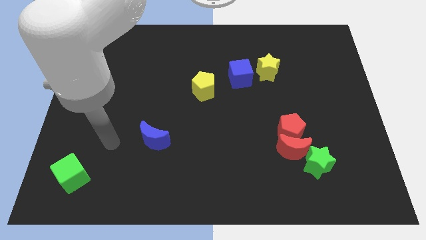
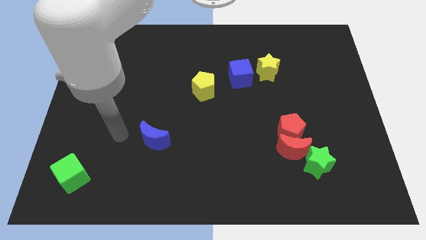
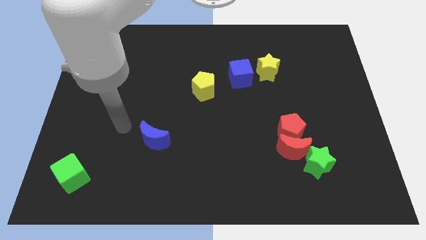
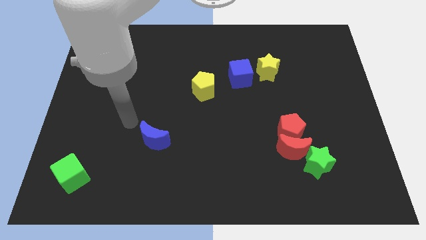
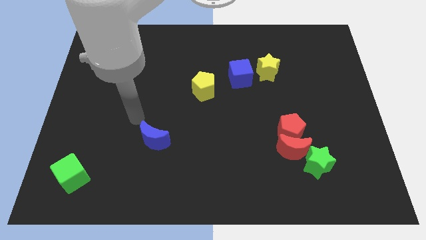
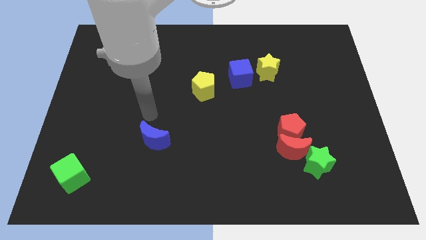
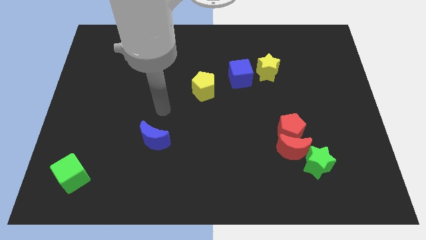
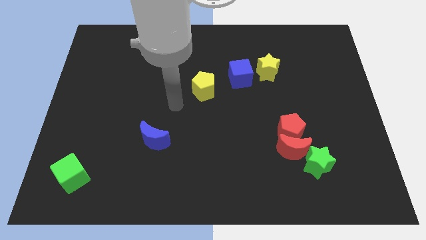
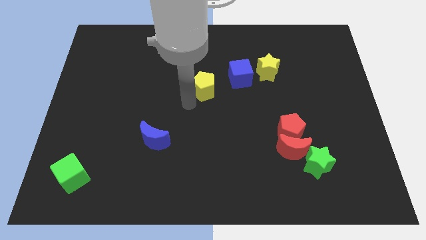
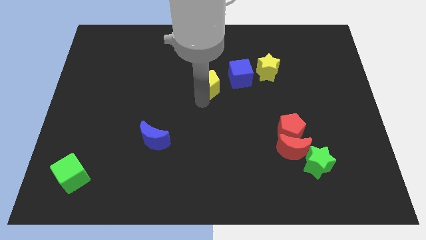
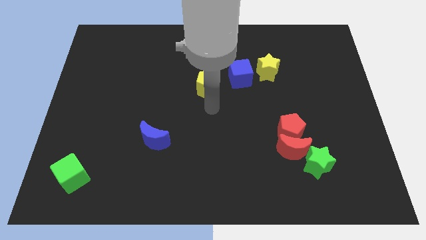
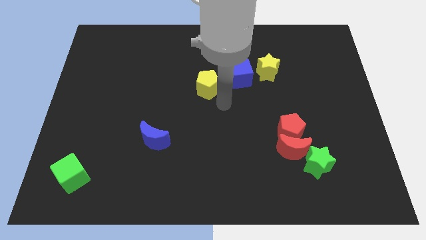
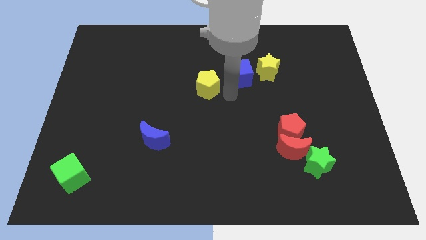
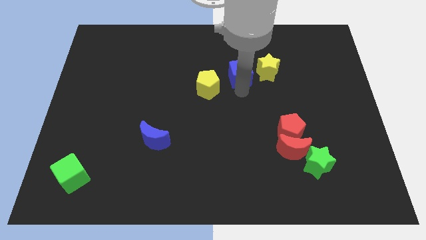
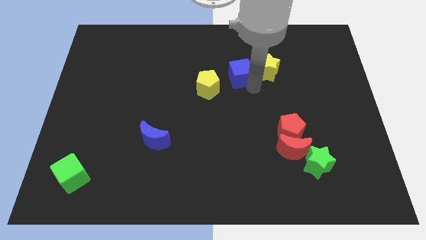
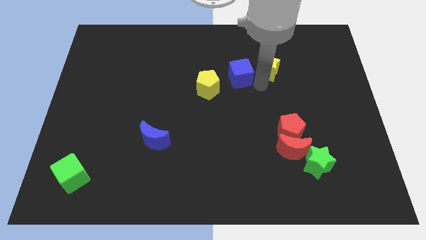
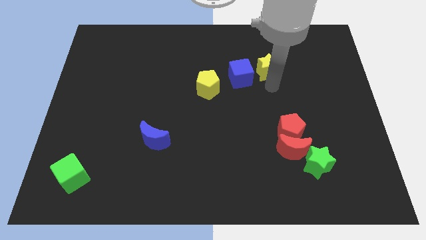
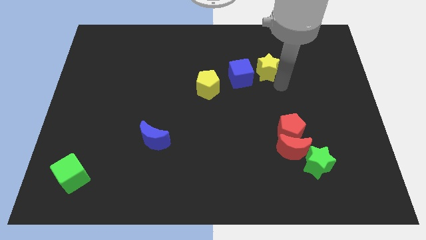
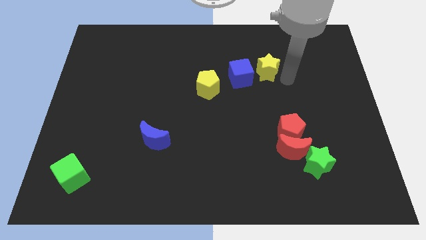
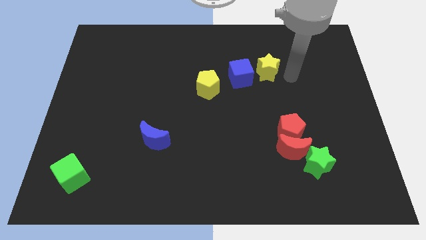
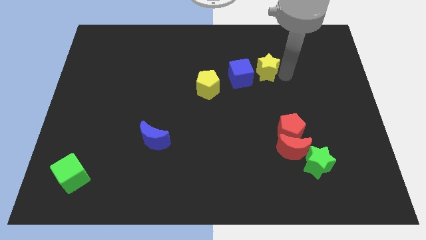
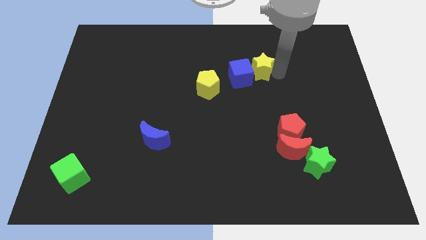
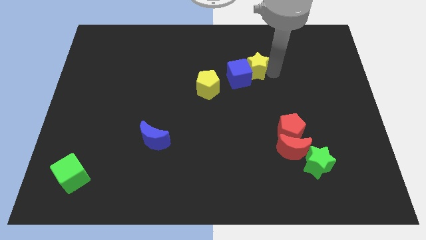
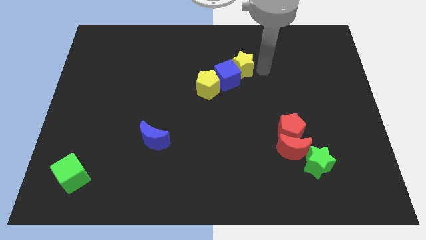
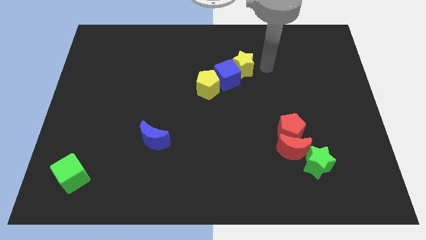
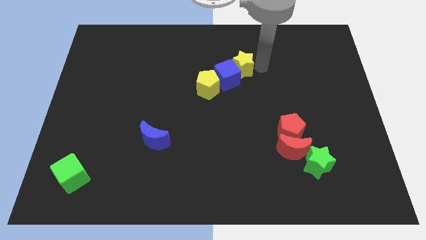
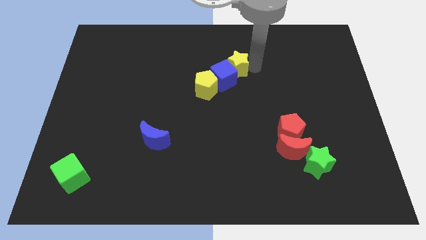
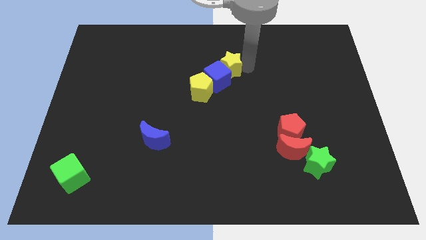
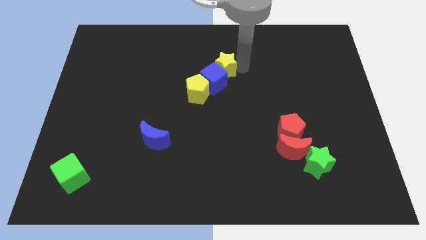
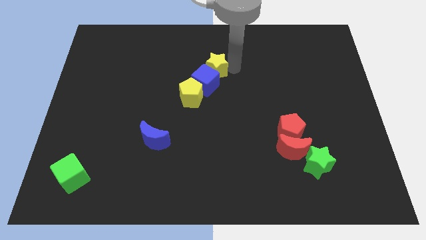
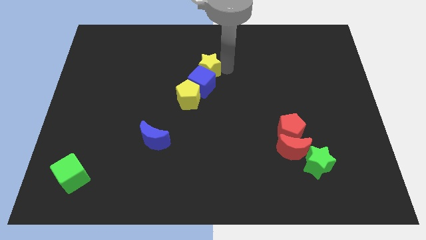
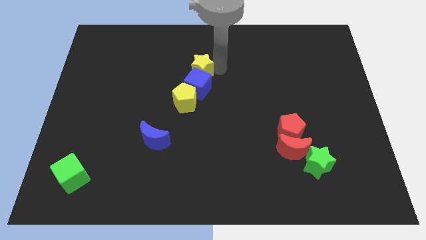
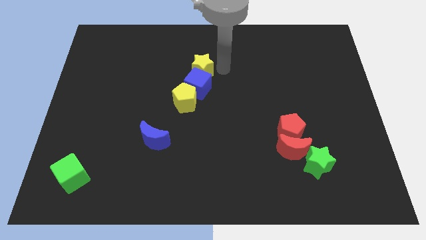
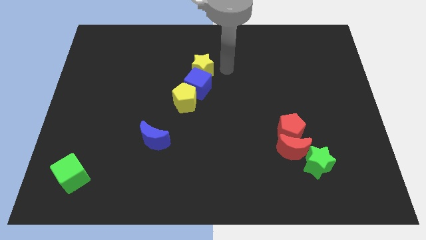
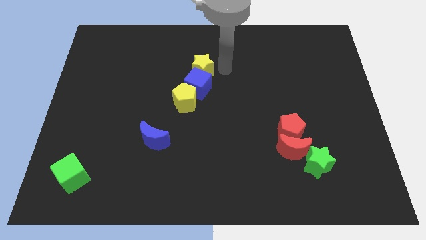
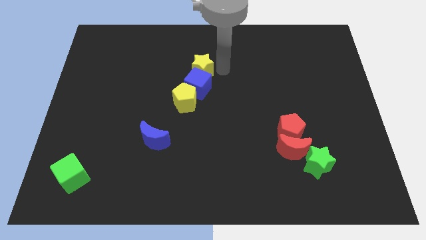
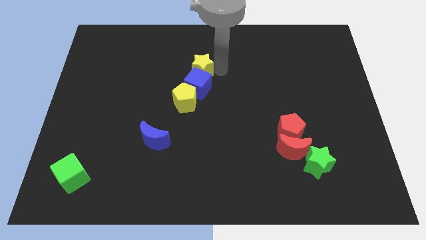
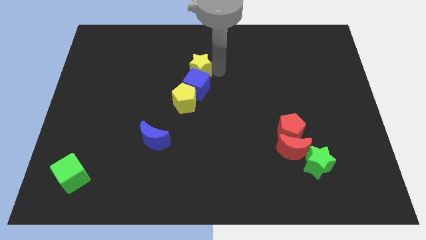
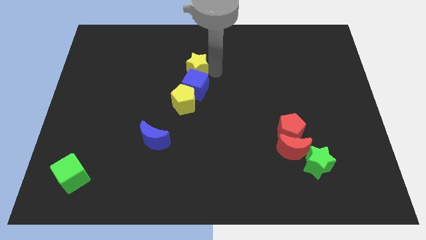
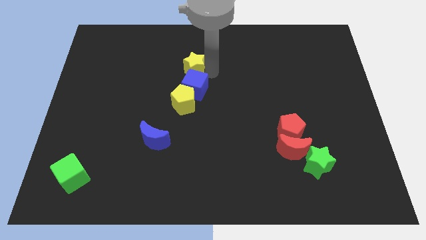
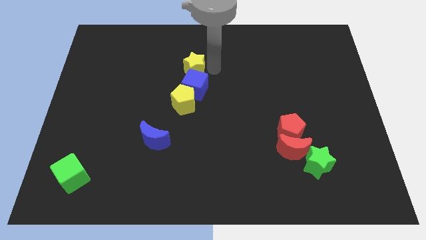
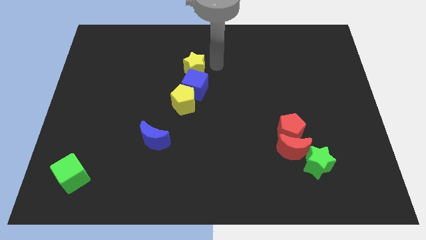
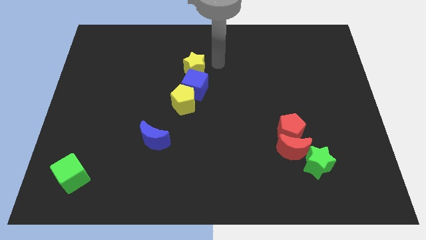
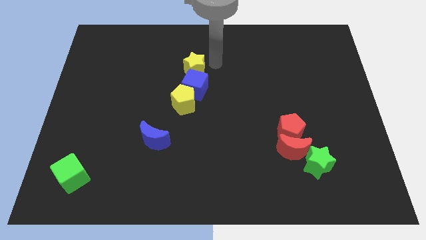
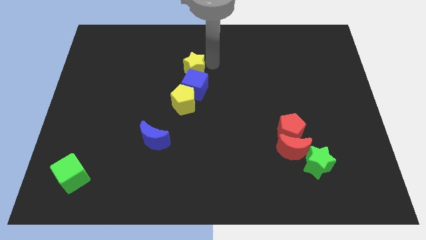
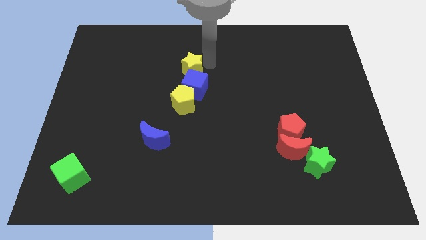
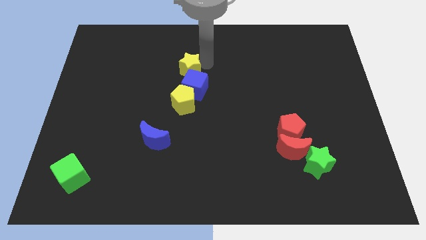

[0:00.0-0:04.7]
slide the yellow star to the left

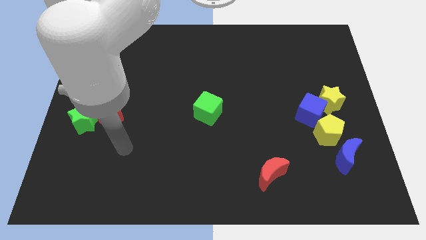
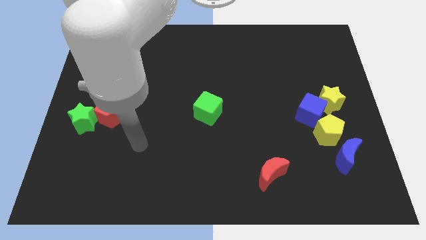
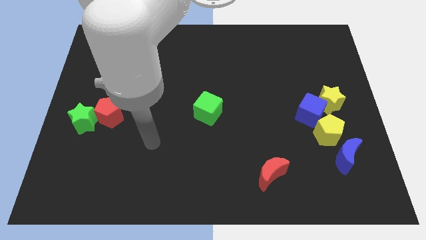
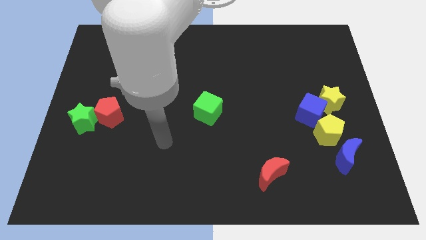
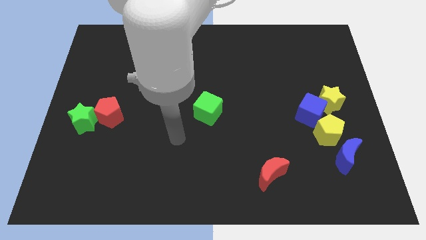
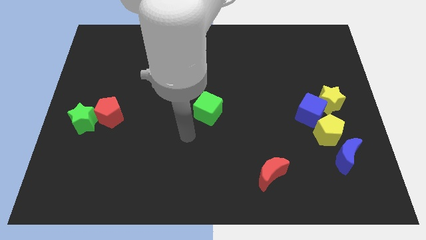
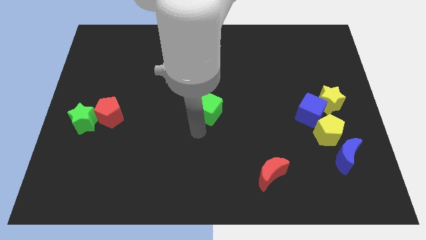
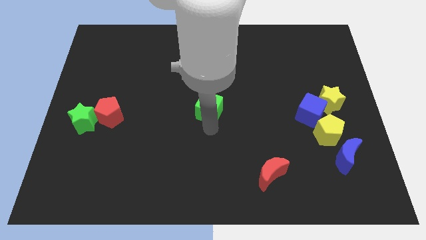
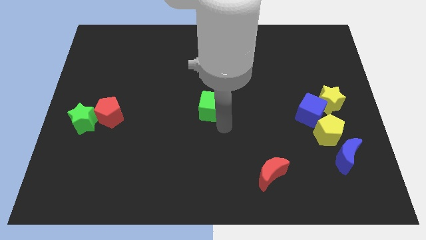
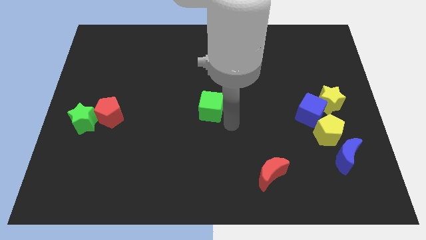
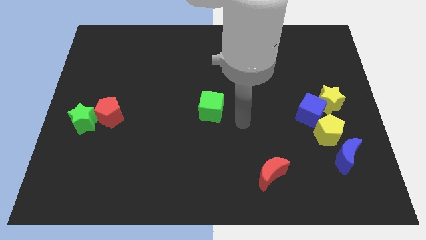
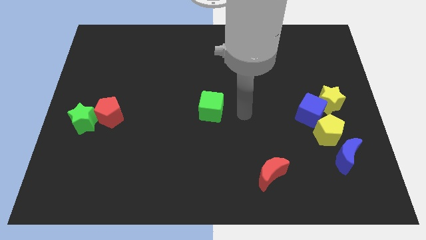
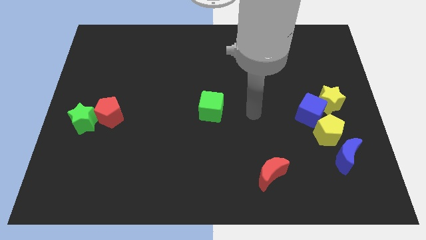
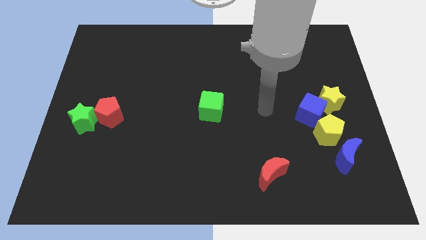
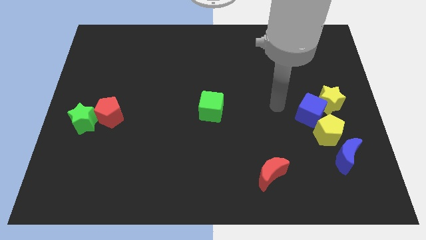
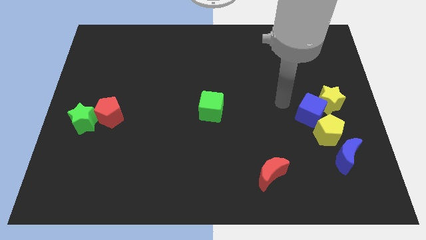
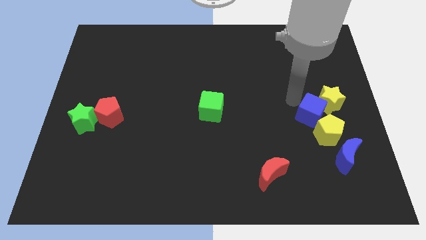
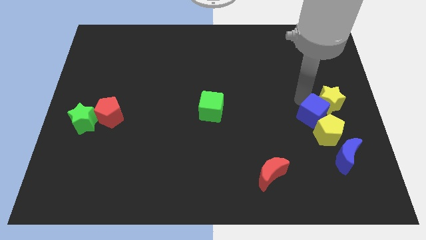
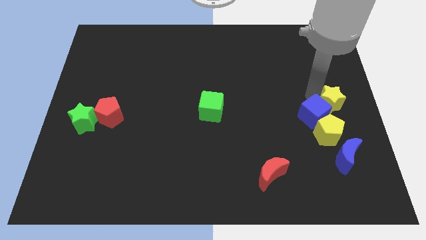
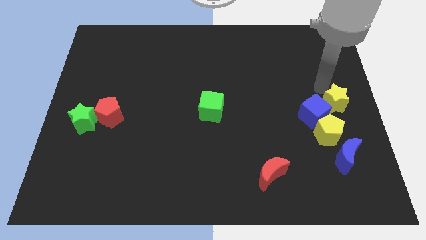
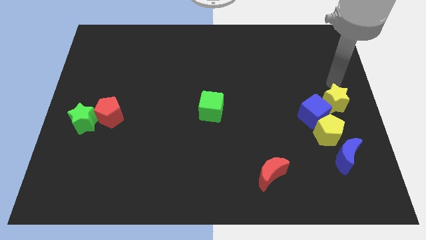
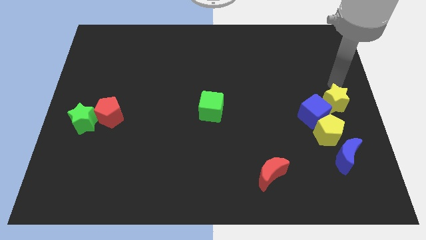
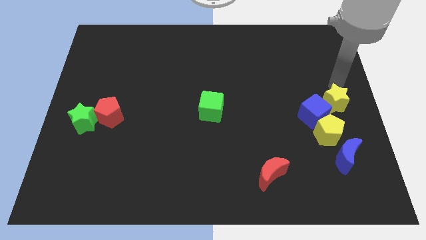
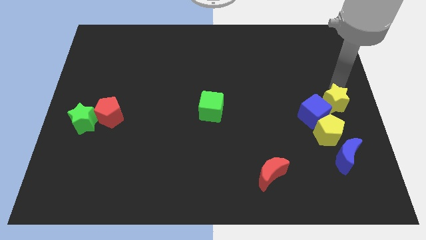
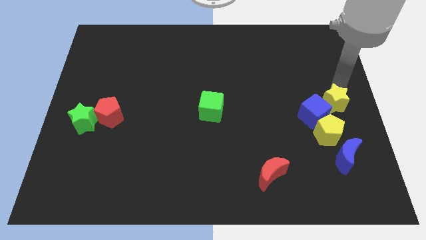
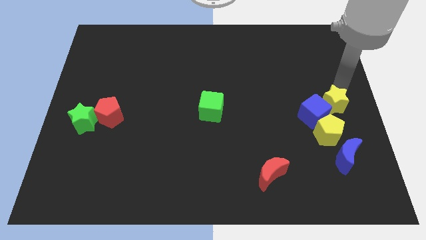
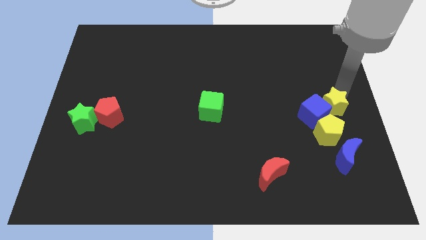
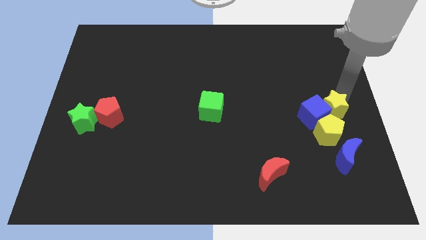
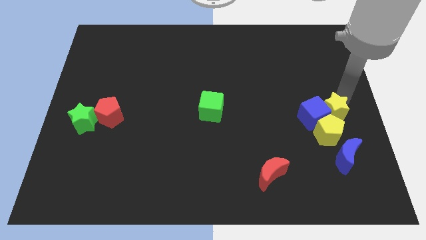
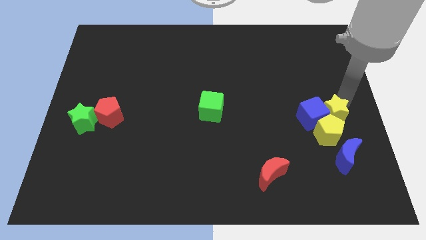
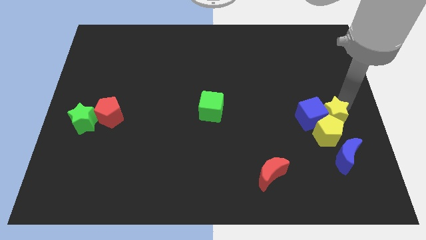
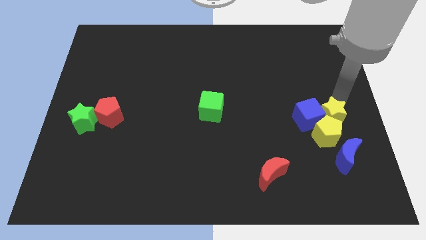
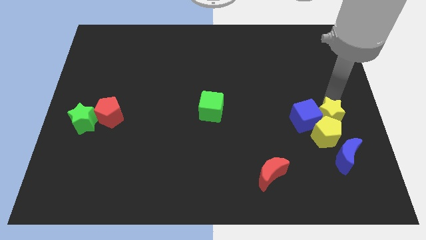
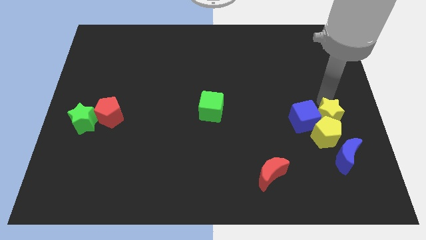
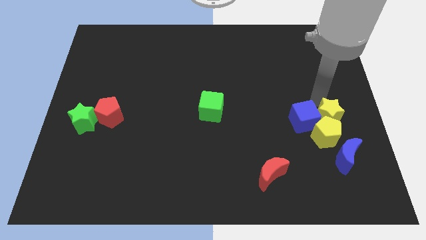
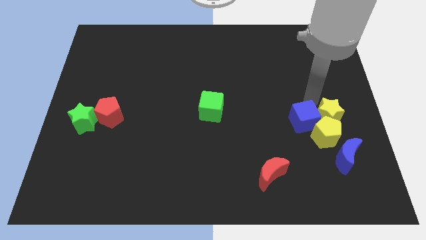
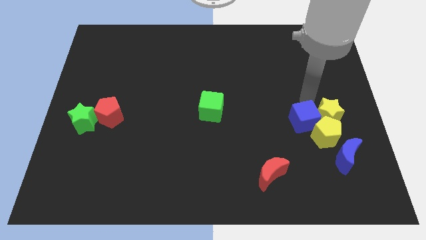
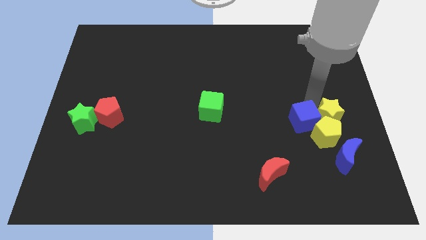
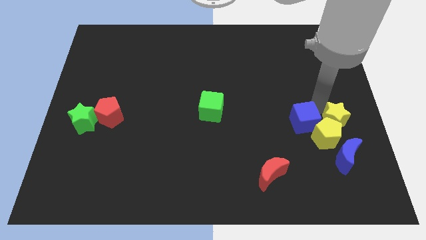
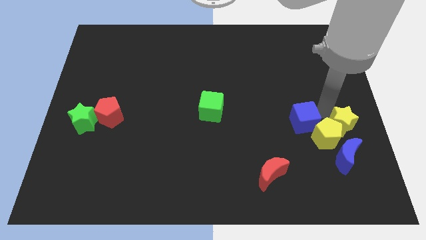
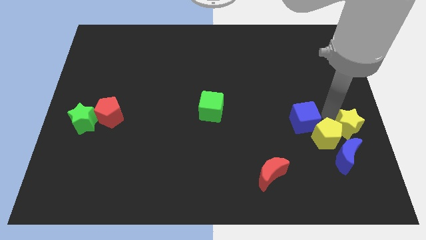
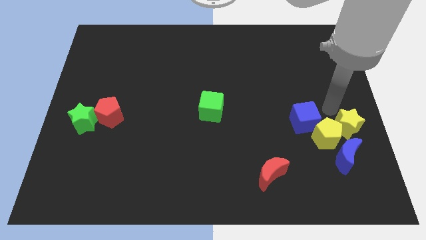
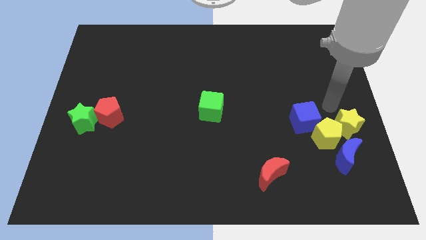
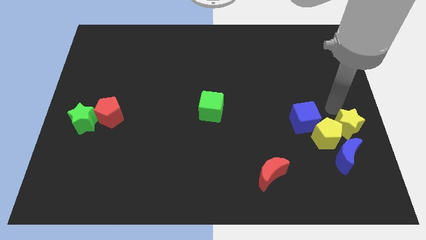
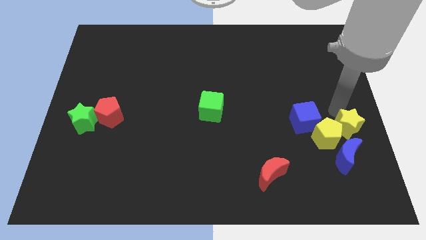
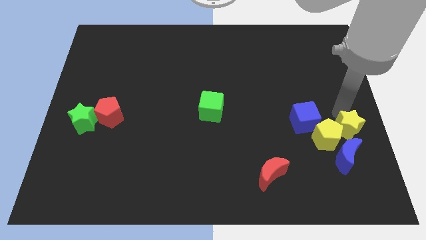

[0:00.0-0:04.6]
move the yellow star downwards somewhat
